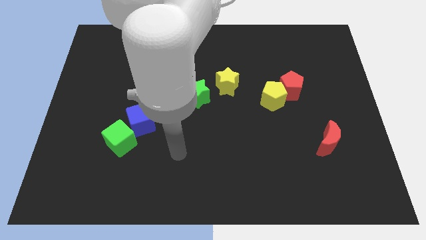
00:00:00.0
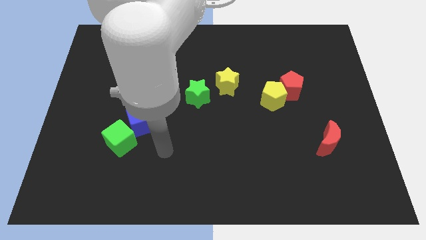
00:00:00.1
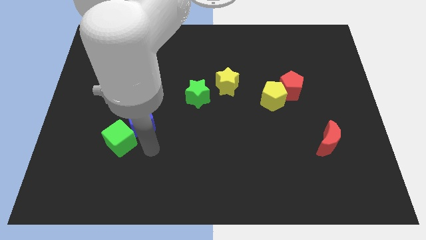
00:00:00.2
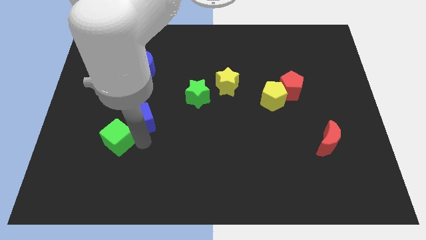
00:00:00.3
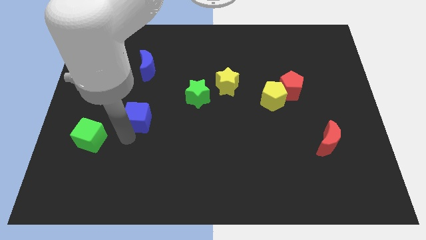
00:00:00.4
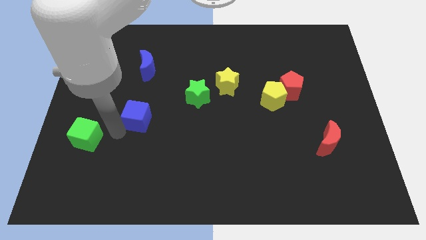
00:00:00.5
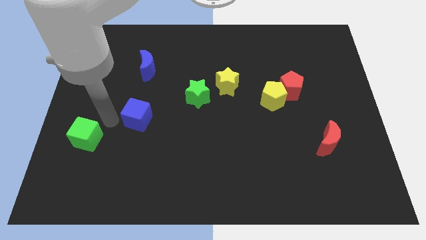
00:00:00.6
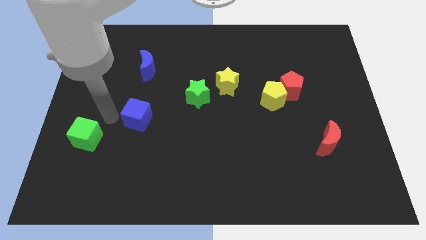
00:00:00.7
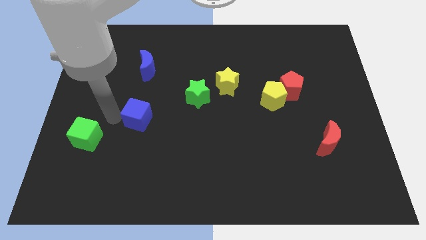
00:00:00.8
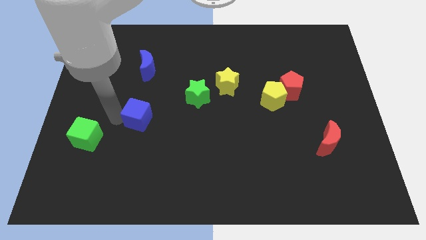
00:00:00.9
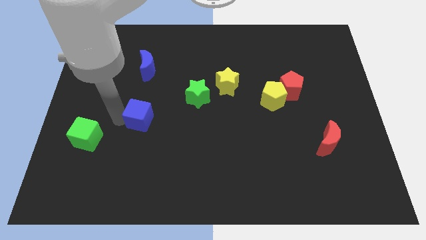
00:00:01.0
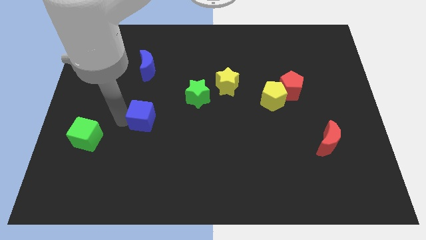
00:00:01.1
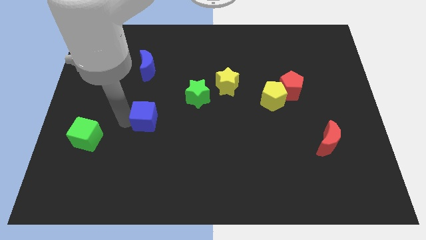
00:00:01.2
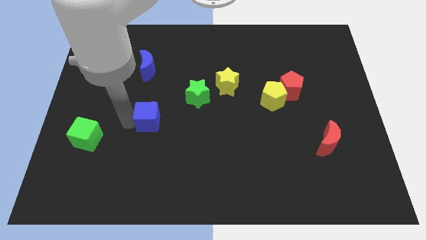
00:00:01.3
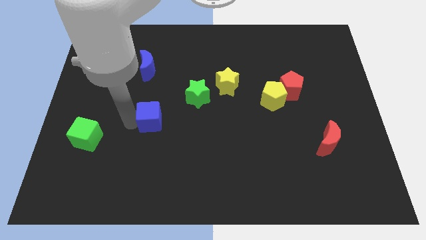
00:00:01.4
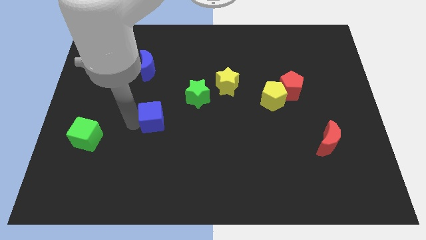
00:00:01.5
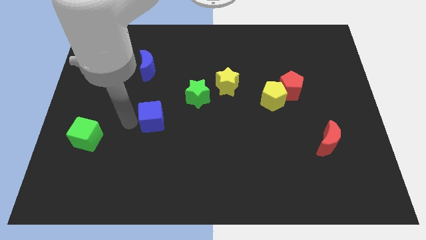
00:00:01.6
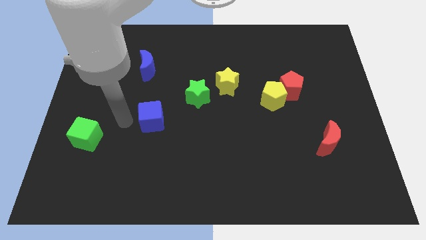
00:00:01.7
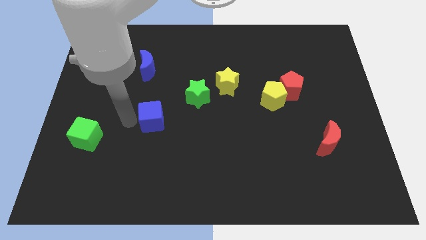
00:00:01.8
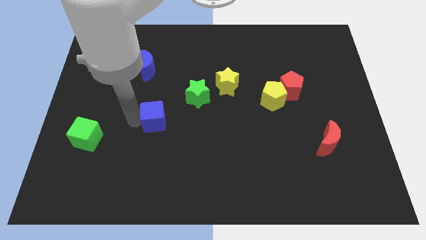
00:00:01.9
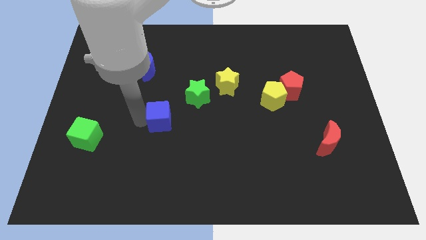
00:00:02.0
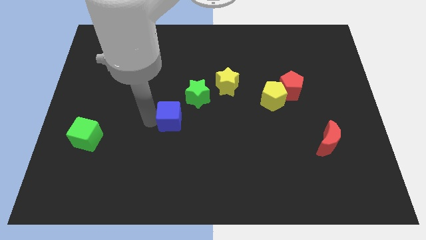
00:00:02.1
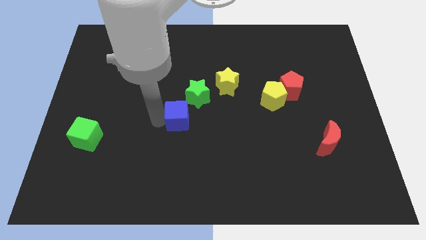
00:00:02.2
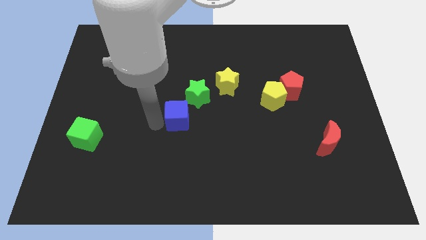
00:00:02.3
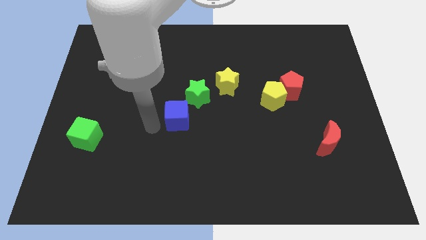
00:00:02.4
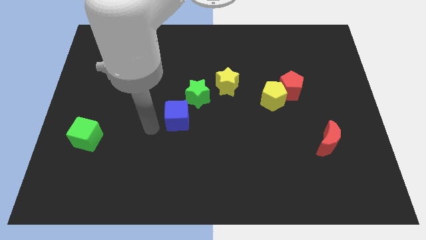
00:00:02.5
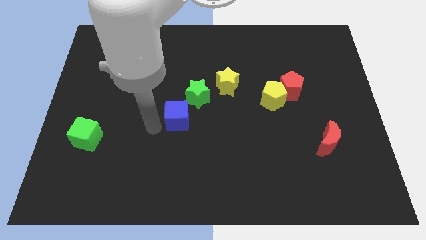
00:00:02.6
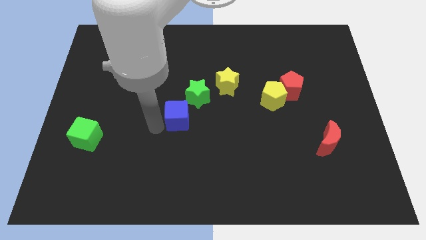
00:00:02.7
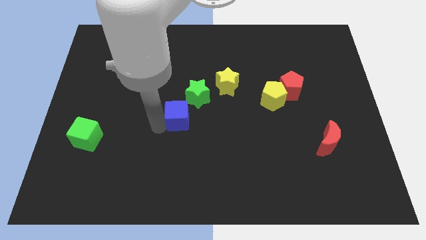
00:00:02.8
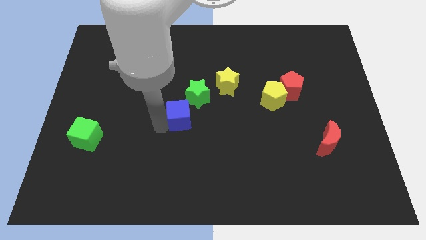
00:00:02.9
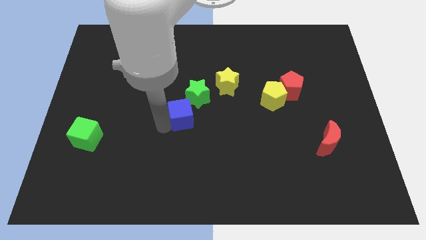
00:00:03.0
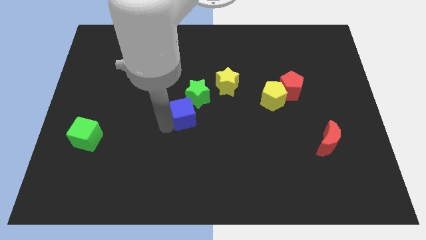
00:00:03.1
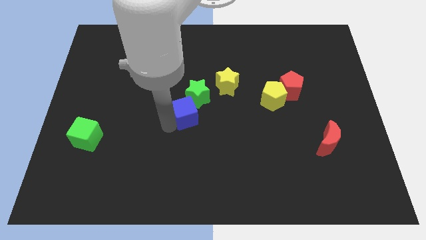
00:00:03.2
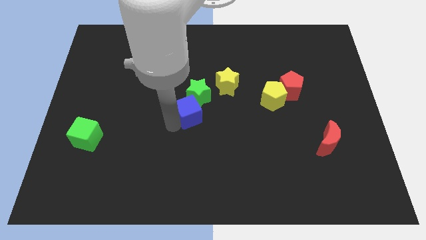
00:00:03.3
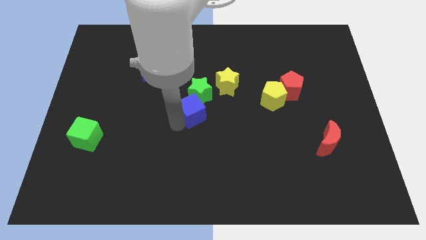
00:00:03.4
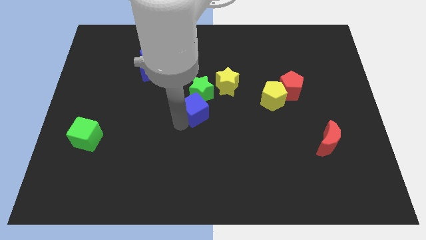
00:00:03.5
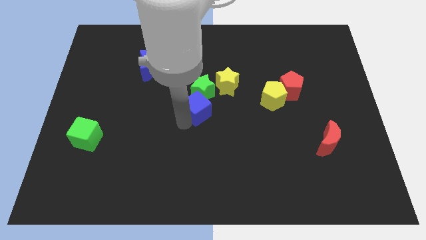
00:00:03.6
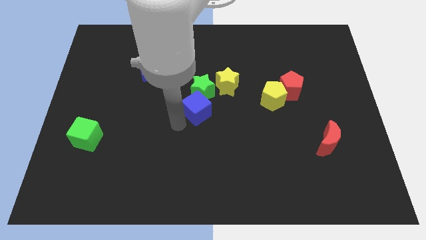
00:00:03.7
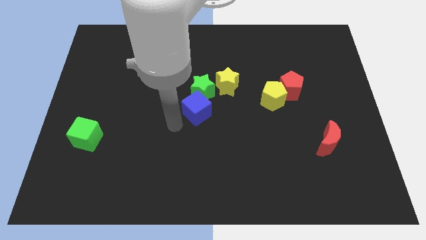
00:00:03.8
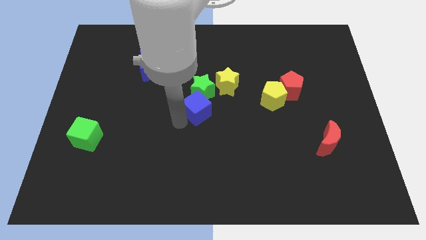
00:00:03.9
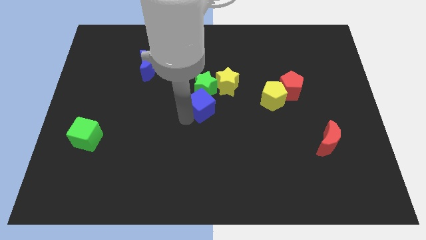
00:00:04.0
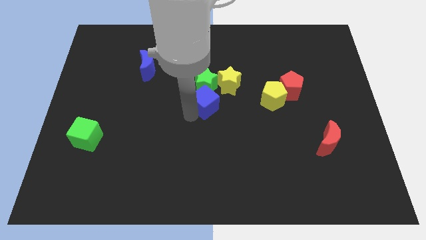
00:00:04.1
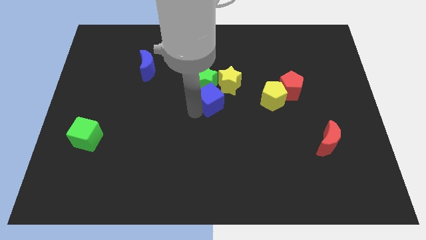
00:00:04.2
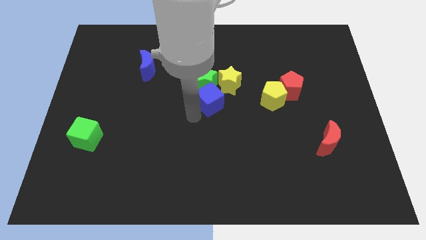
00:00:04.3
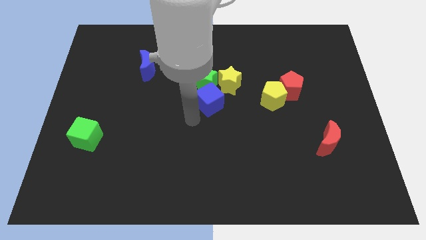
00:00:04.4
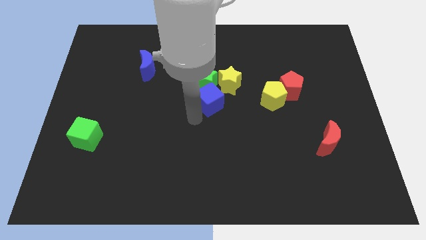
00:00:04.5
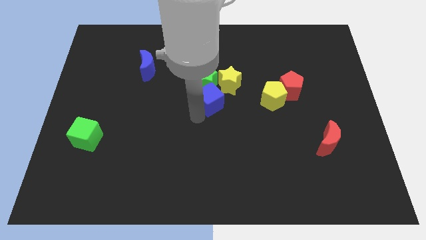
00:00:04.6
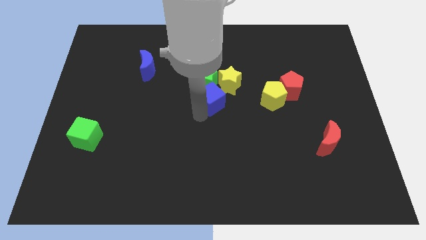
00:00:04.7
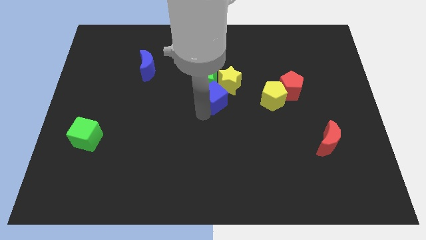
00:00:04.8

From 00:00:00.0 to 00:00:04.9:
put the blue cube next to the yellow star

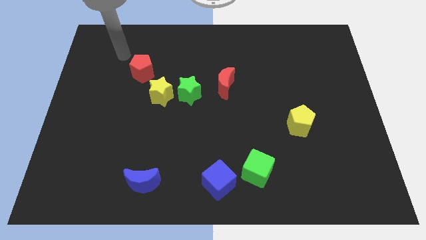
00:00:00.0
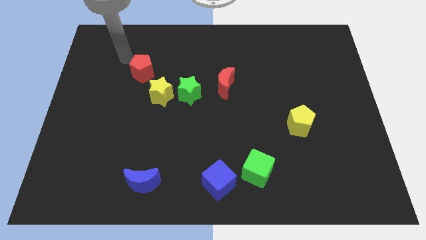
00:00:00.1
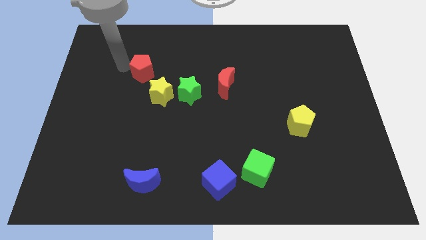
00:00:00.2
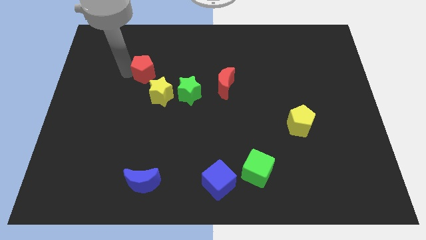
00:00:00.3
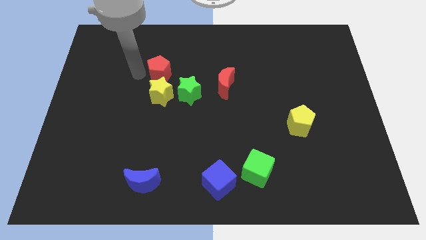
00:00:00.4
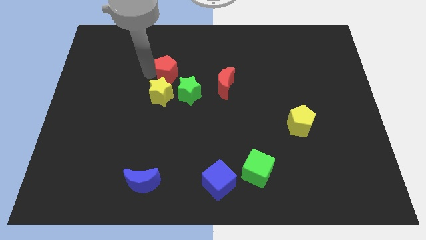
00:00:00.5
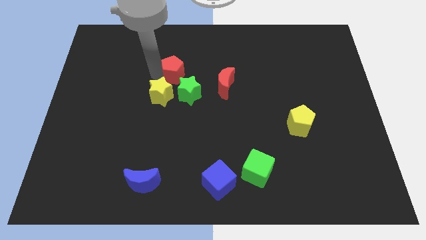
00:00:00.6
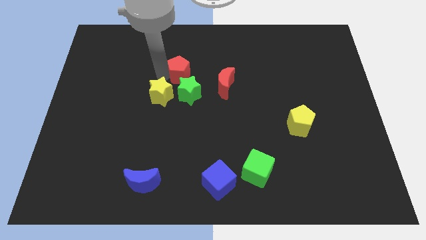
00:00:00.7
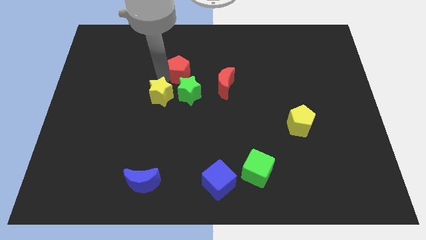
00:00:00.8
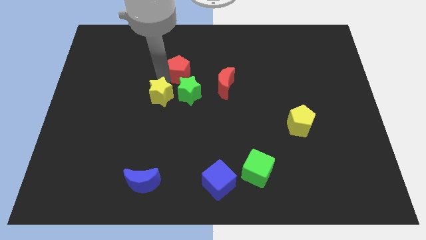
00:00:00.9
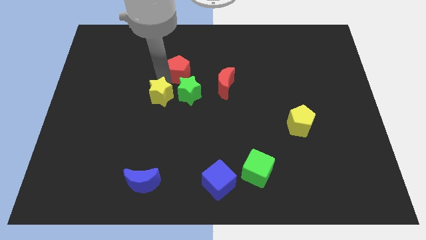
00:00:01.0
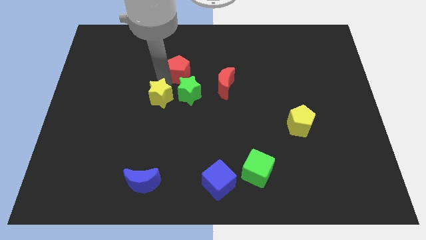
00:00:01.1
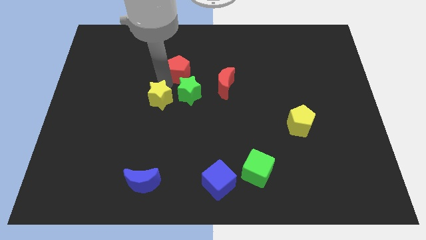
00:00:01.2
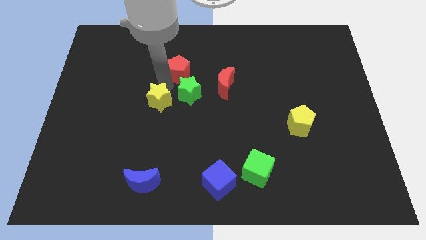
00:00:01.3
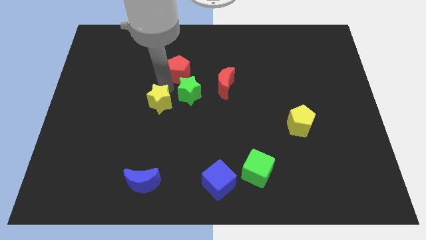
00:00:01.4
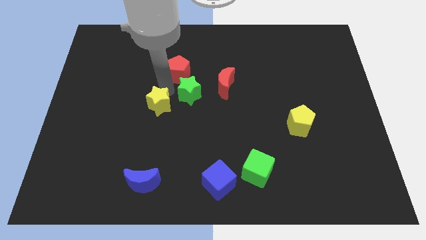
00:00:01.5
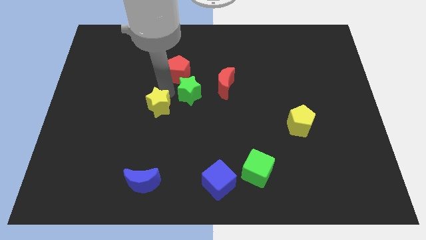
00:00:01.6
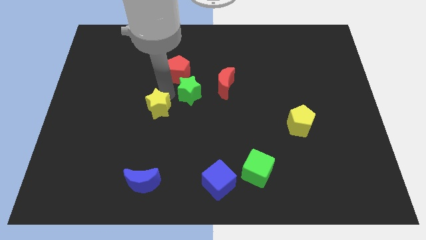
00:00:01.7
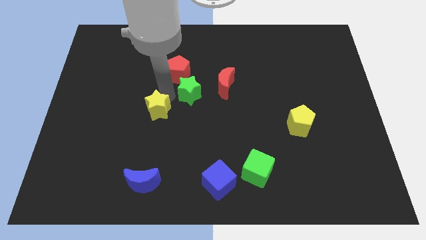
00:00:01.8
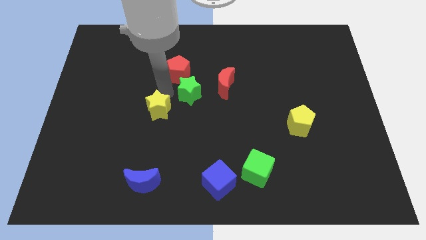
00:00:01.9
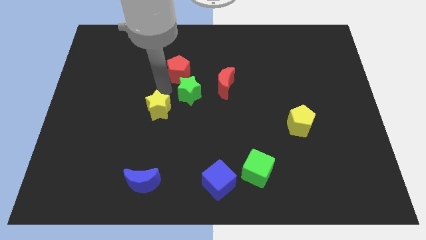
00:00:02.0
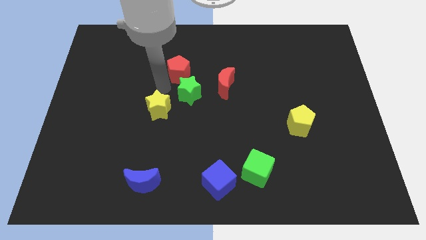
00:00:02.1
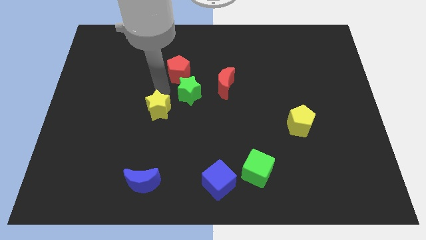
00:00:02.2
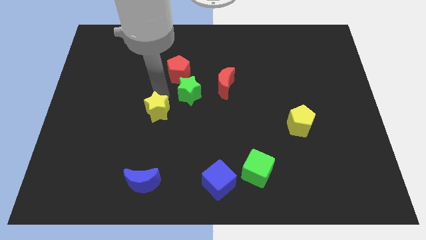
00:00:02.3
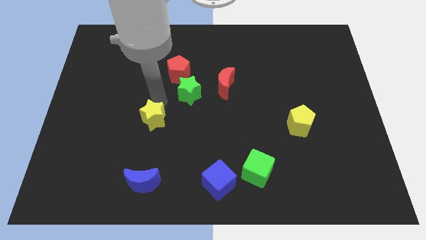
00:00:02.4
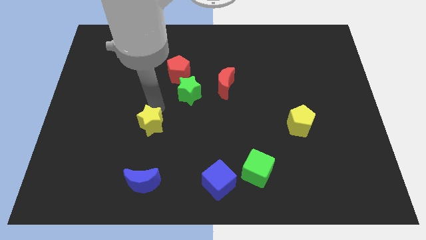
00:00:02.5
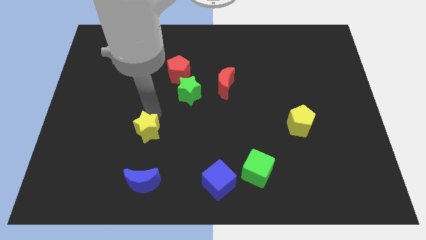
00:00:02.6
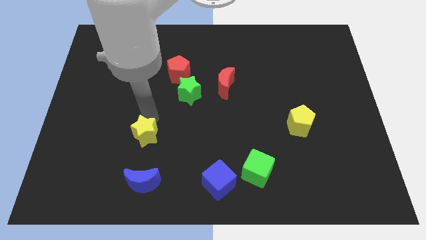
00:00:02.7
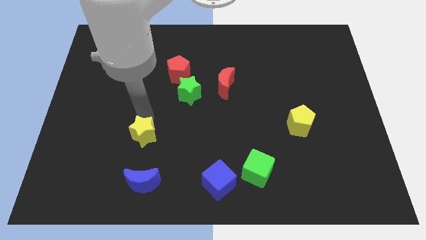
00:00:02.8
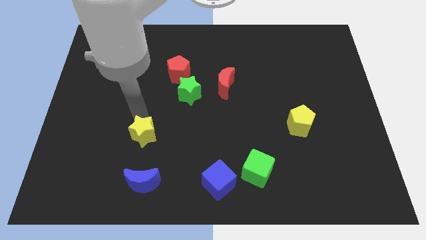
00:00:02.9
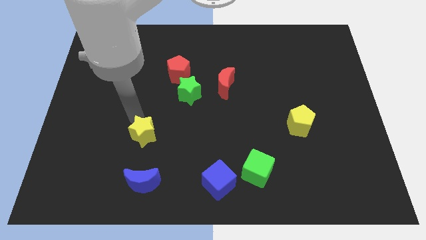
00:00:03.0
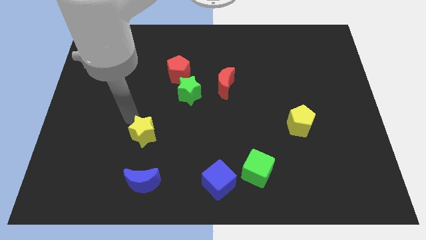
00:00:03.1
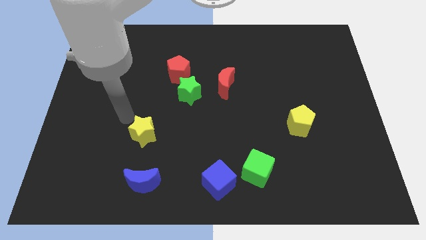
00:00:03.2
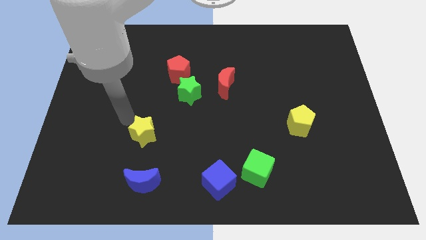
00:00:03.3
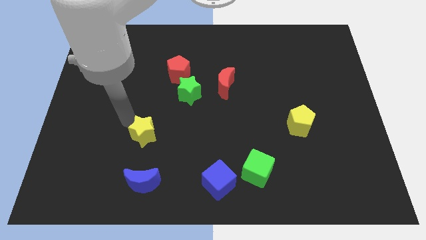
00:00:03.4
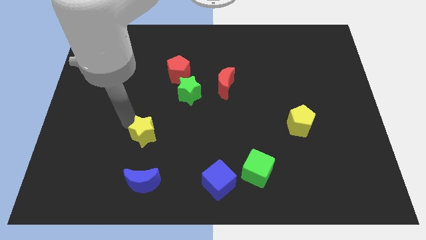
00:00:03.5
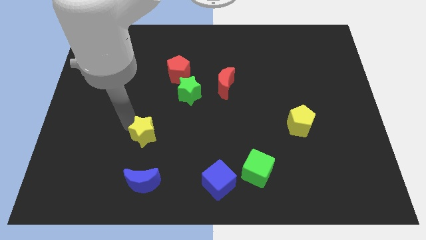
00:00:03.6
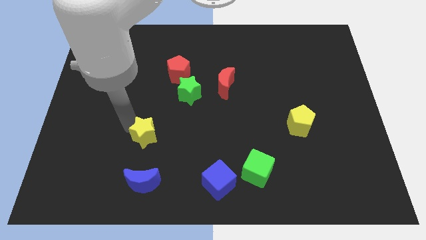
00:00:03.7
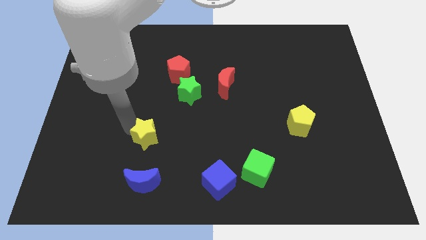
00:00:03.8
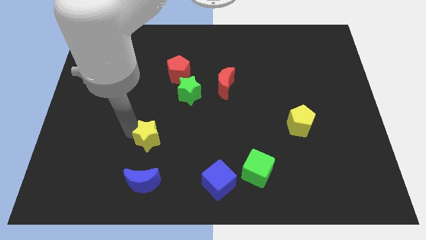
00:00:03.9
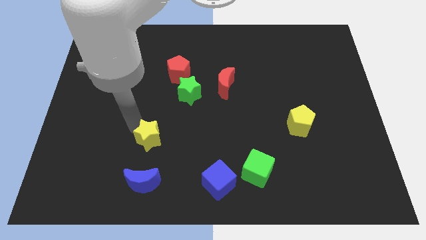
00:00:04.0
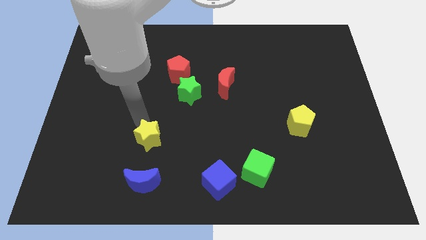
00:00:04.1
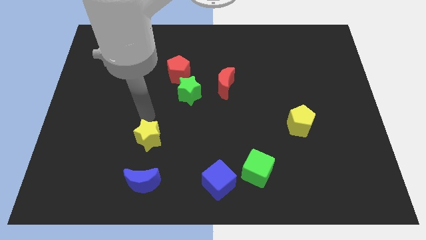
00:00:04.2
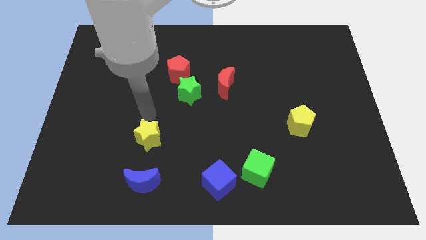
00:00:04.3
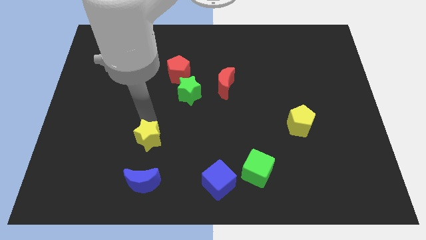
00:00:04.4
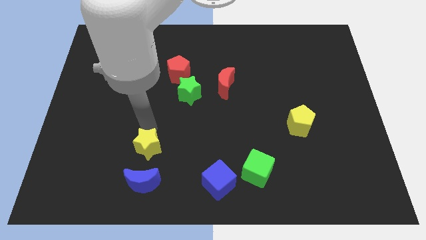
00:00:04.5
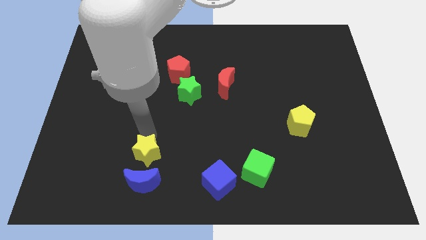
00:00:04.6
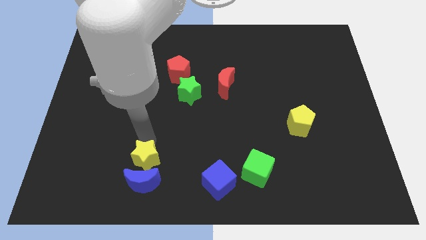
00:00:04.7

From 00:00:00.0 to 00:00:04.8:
move the yellow star close to the blue moon
